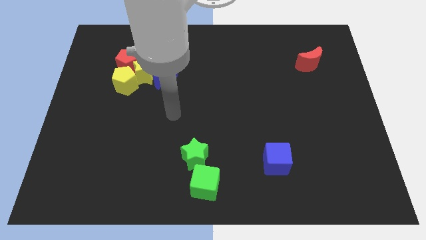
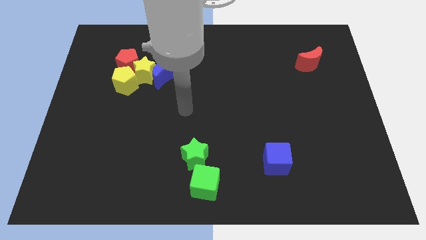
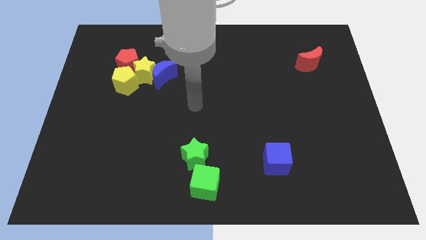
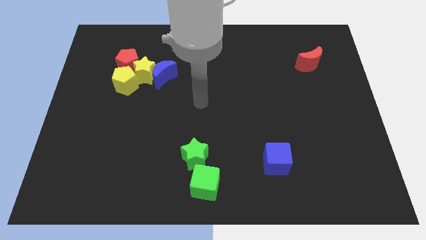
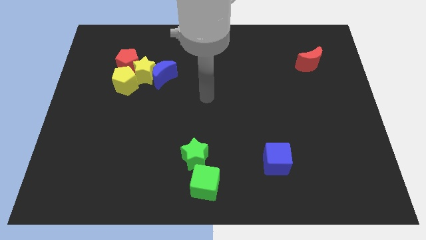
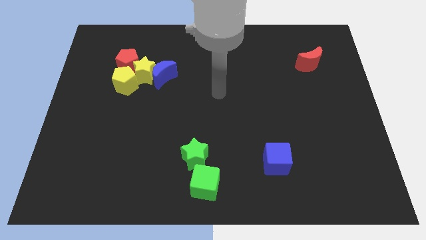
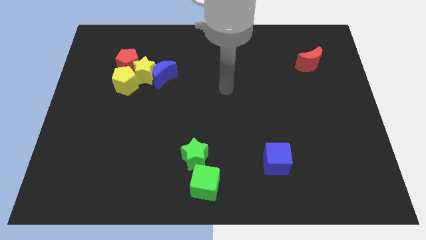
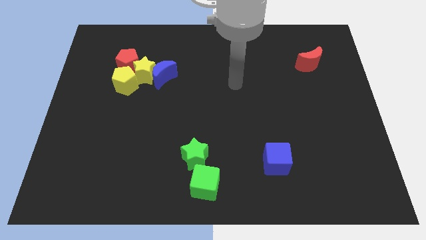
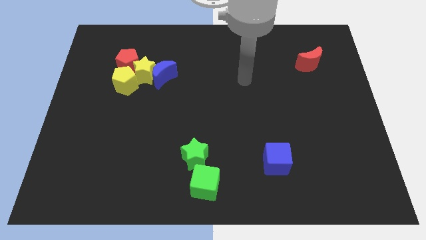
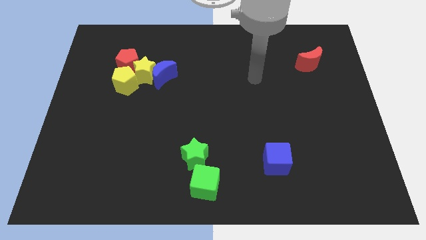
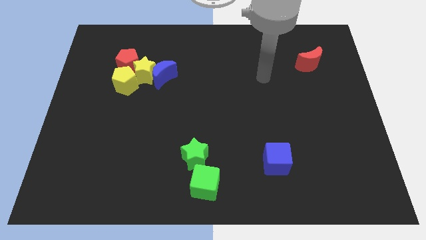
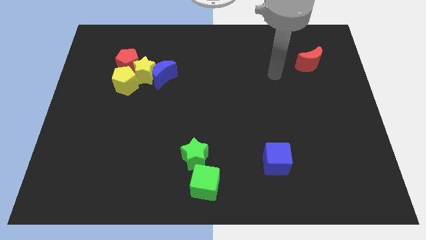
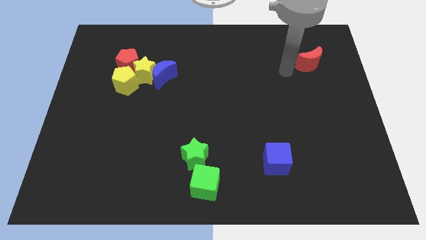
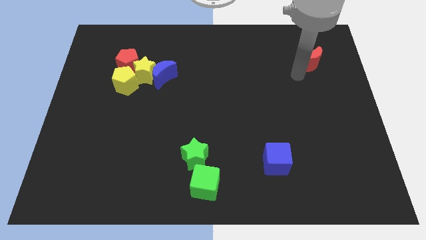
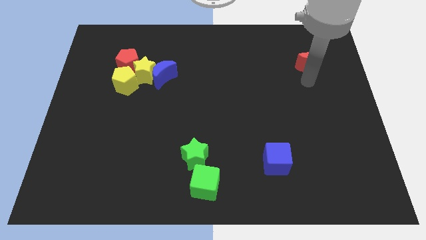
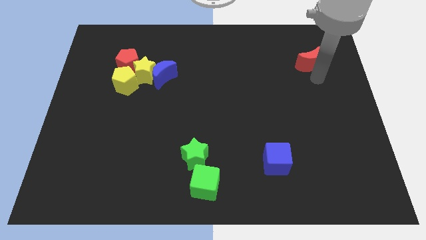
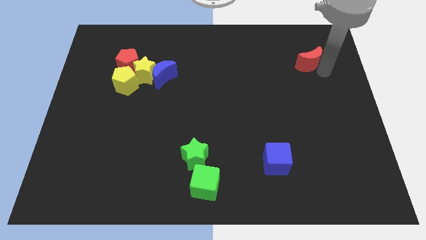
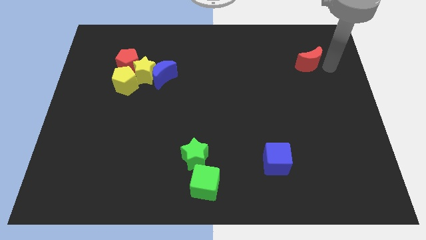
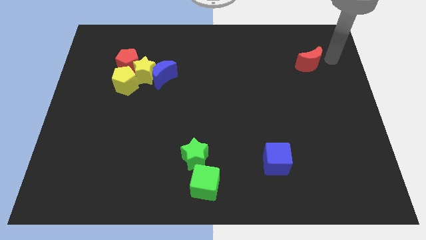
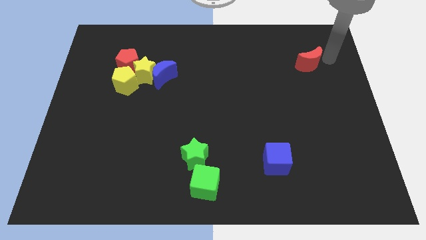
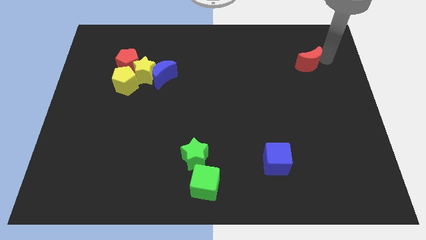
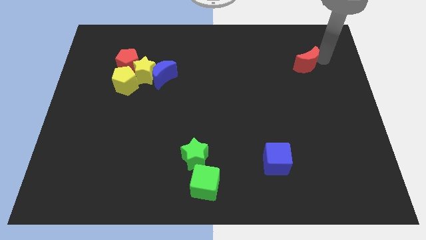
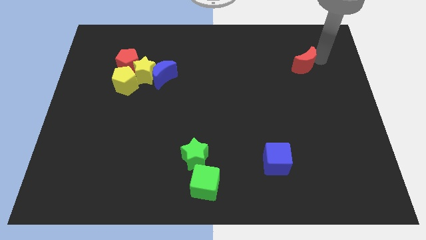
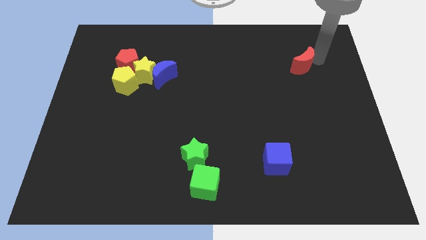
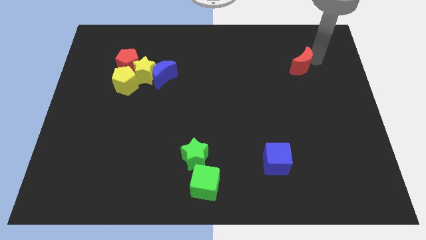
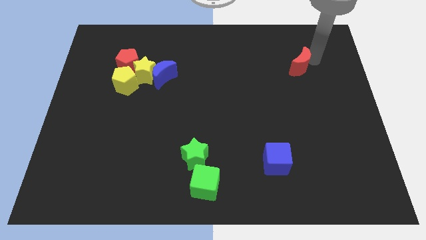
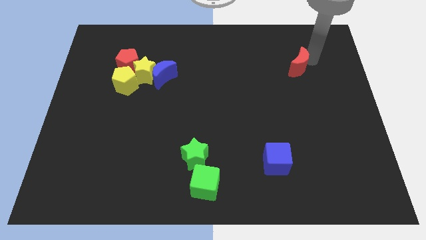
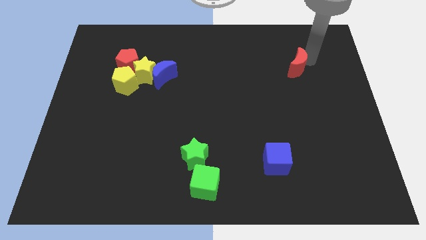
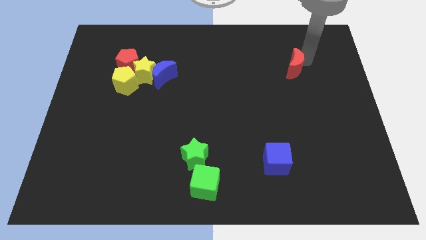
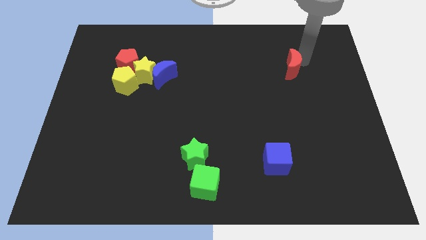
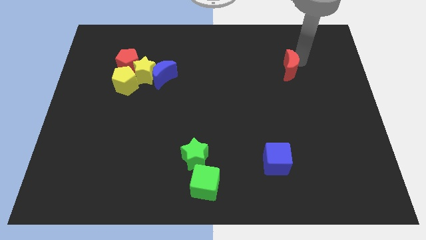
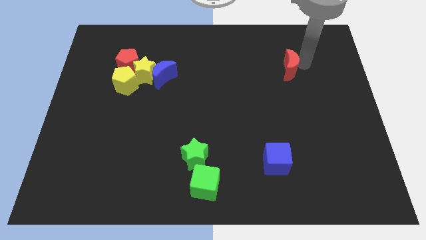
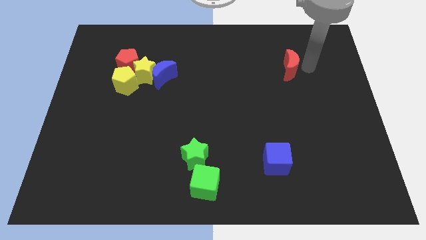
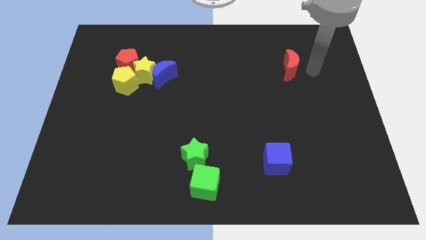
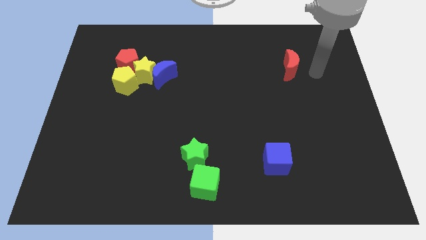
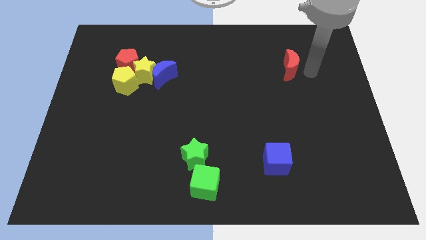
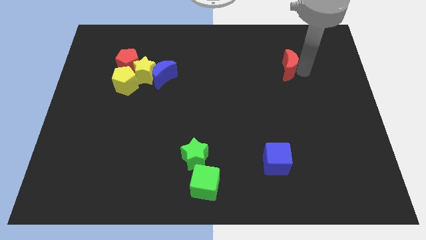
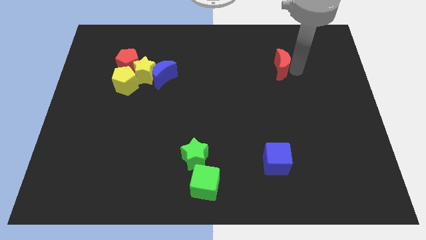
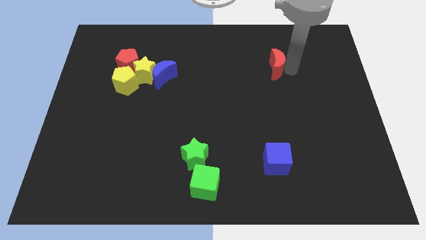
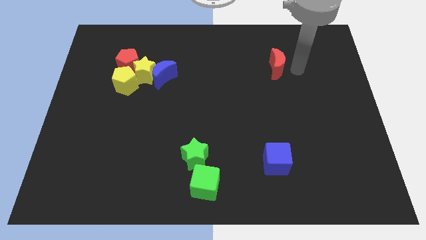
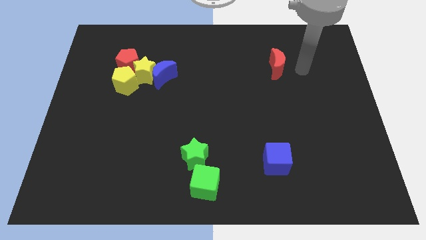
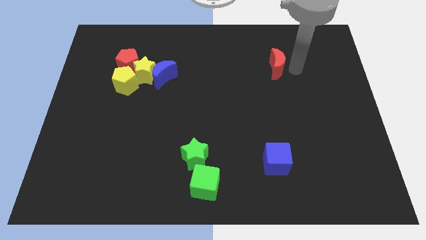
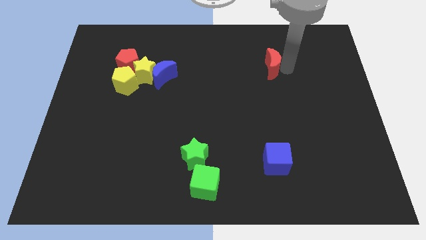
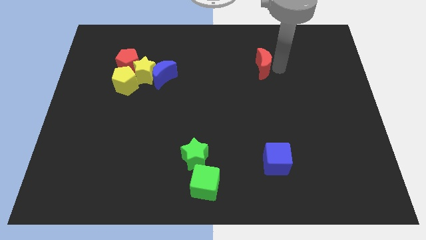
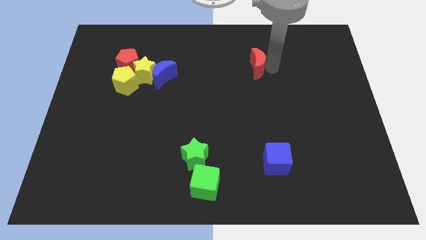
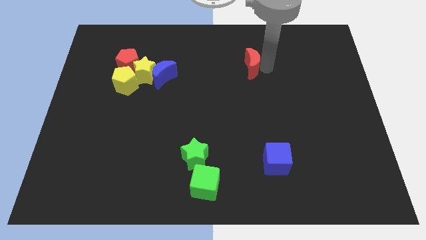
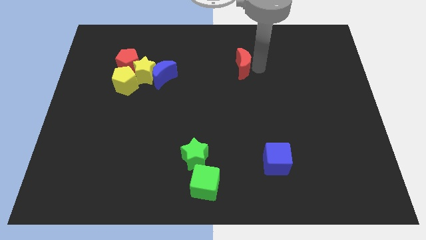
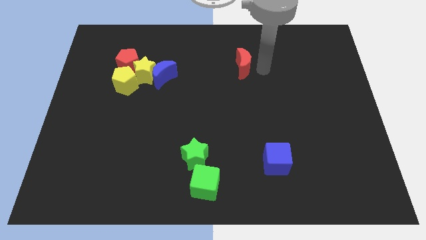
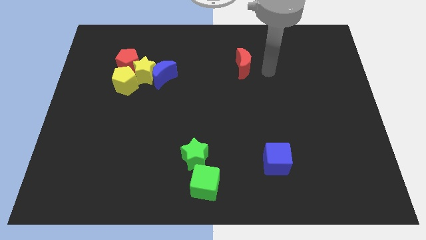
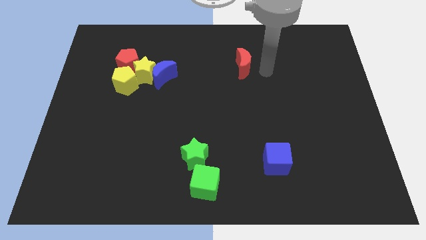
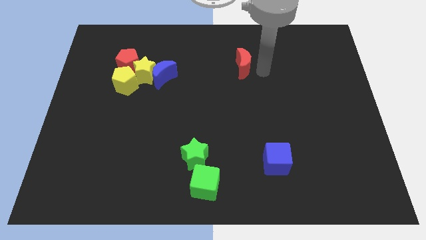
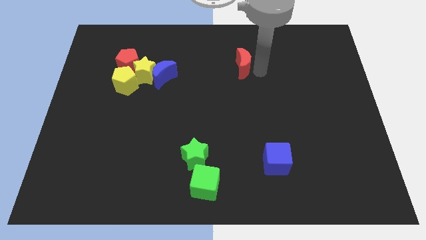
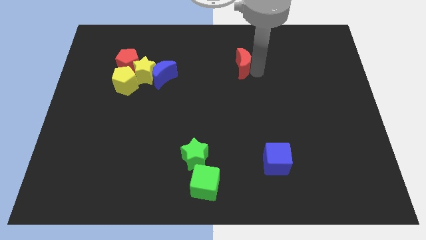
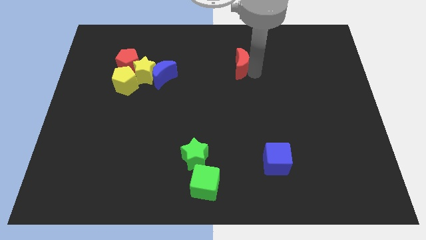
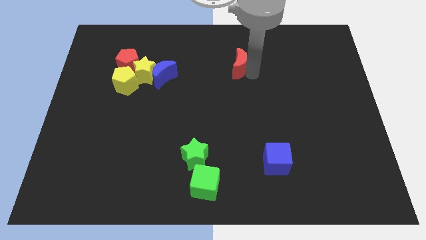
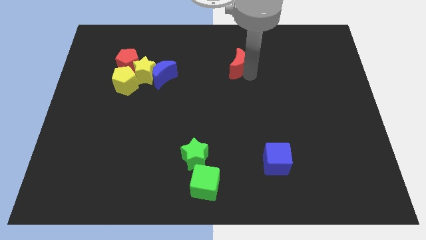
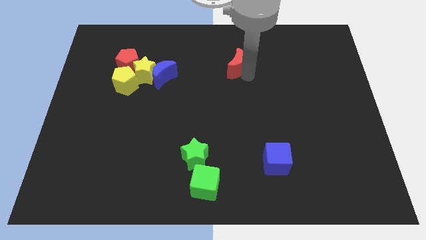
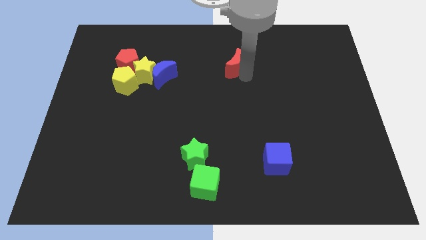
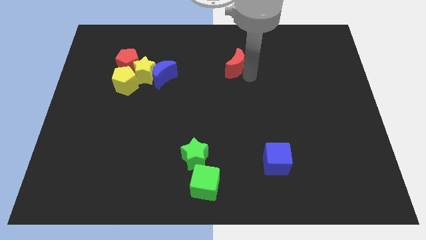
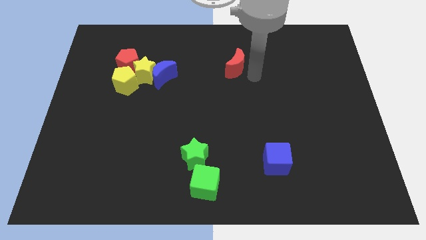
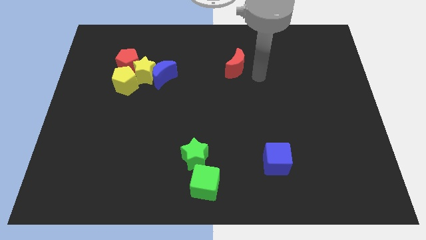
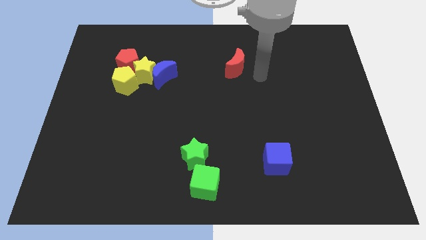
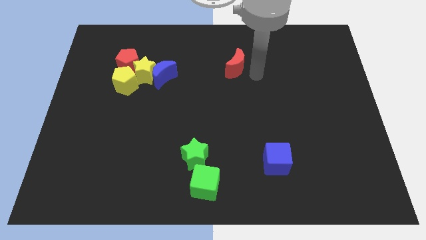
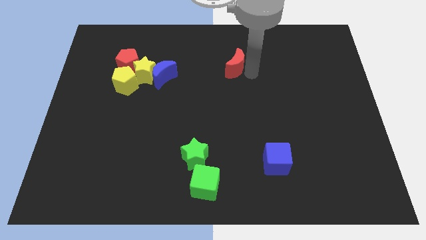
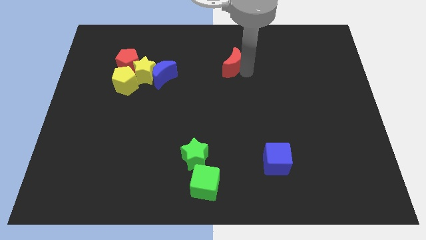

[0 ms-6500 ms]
slide the red moon left

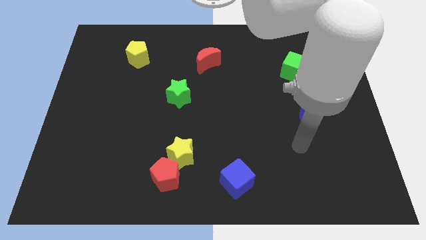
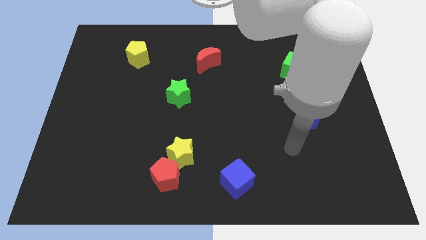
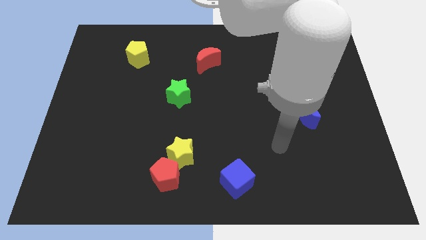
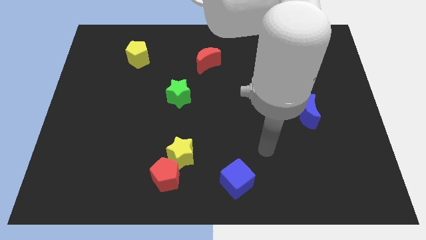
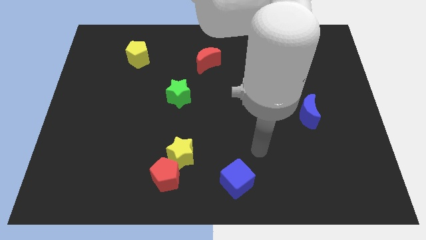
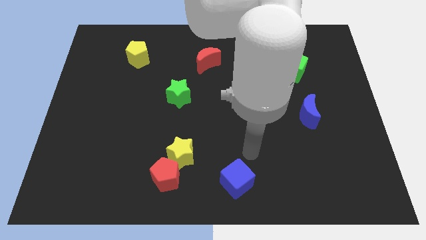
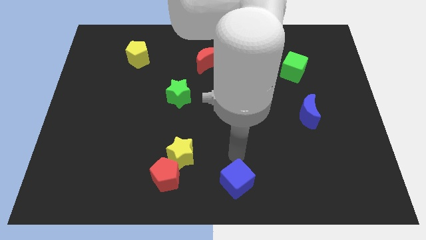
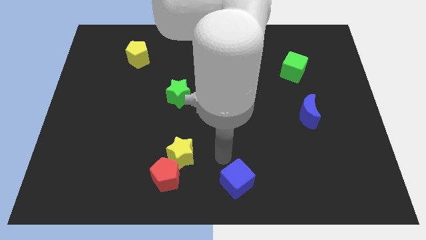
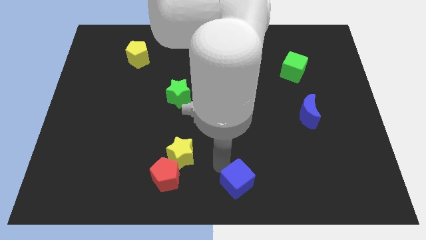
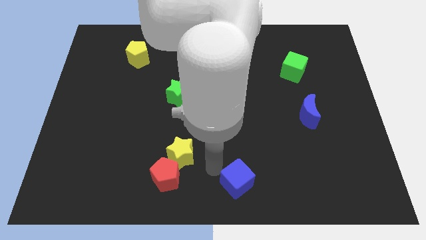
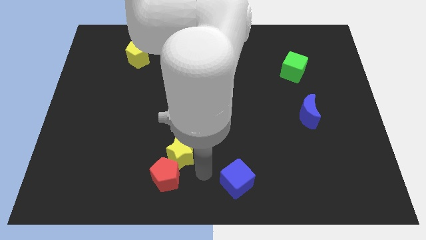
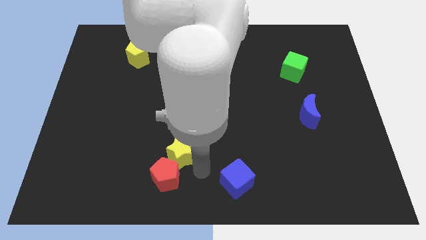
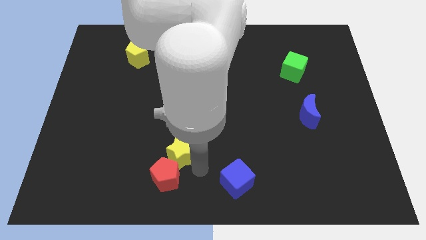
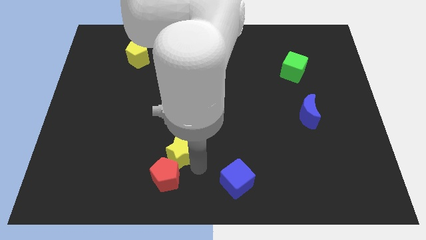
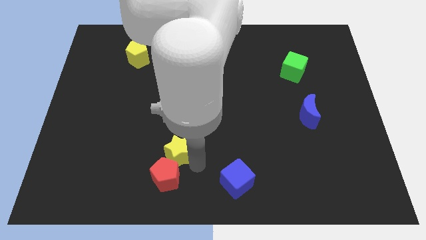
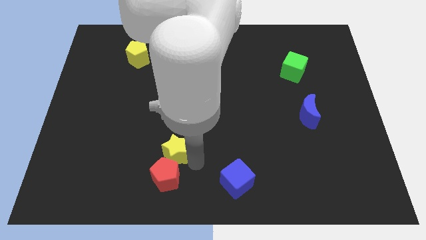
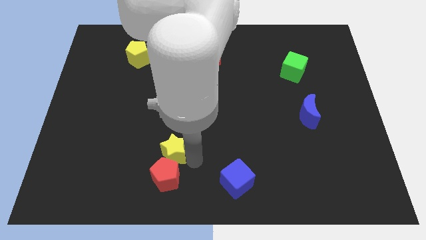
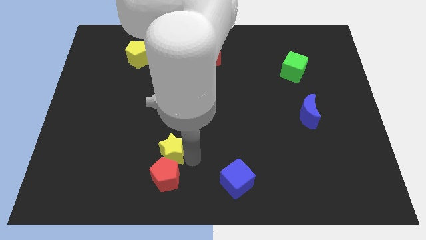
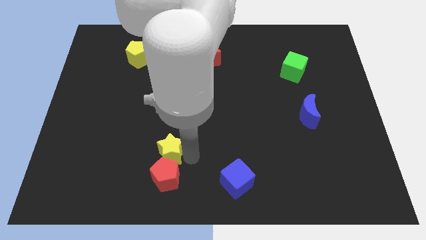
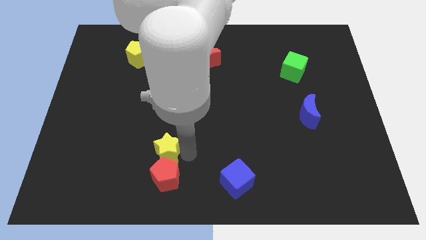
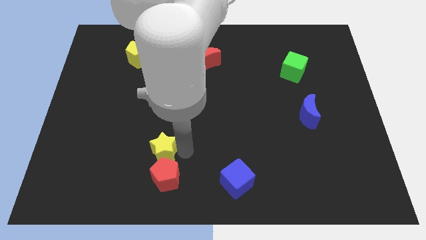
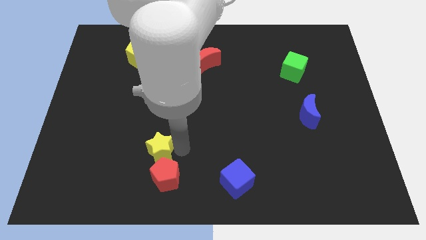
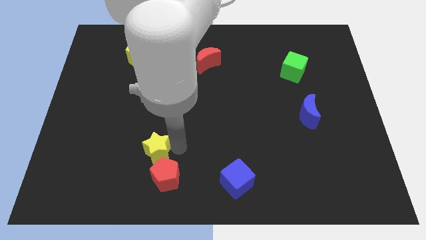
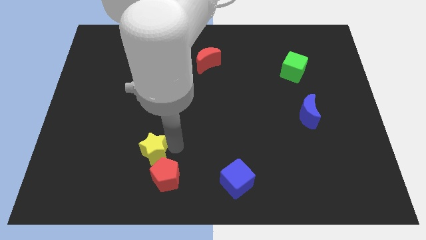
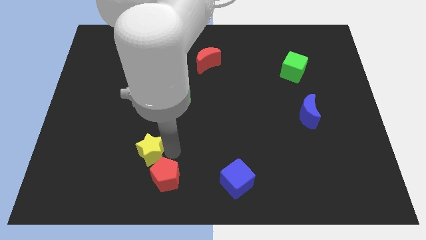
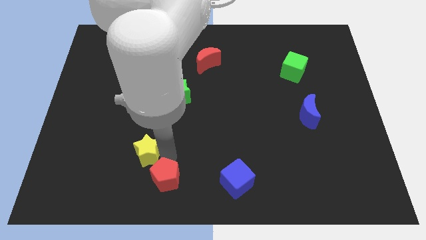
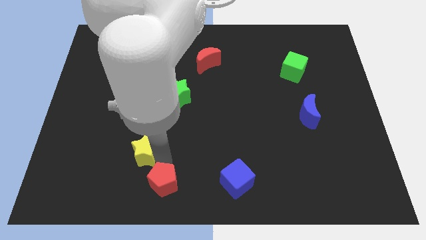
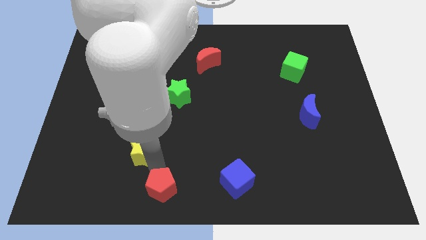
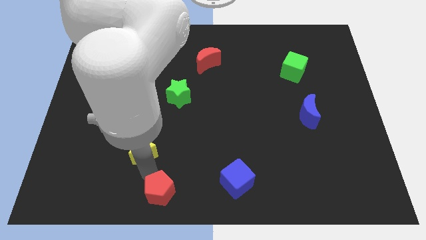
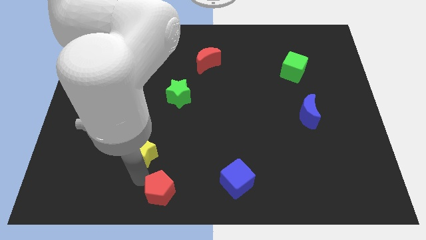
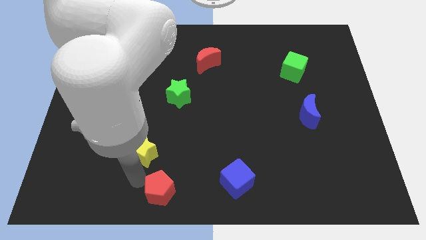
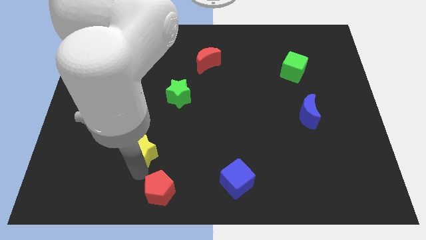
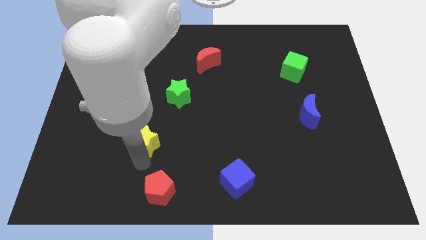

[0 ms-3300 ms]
push the yellow star a little upwards and then to the left
